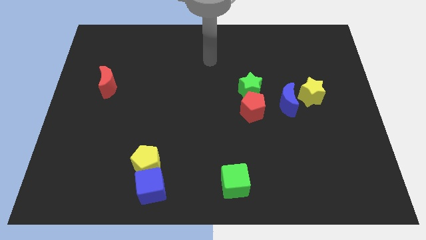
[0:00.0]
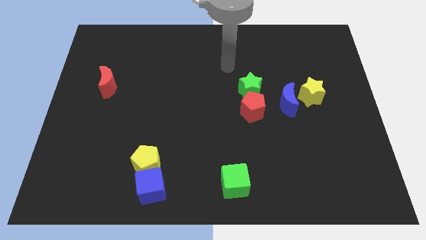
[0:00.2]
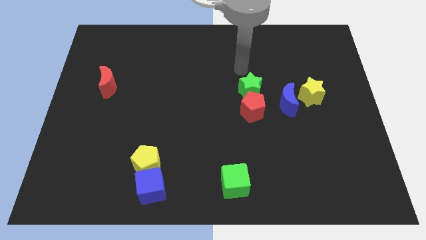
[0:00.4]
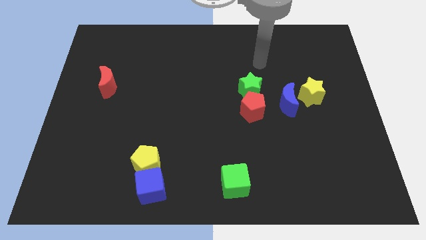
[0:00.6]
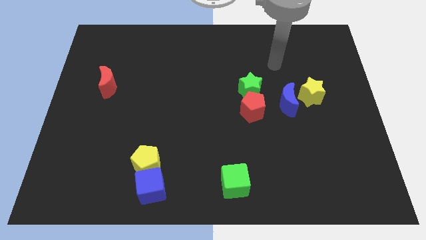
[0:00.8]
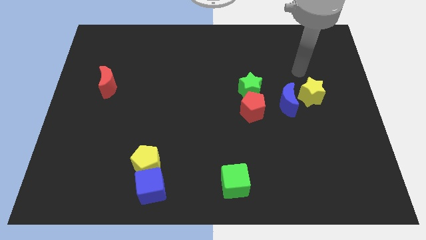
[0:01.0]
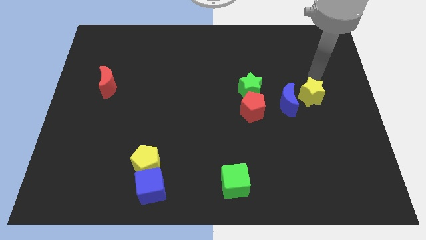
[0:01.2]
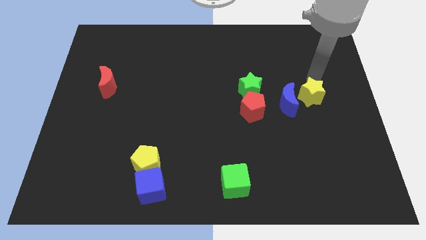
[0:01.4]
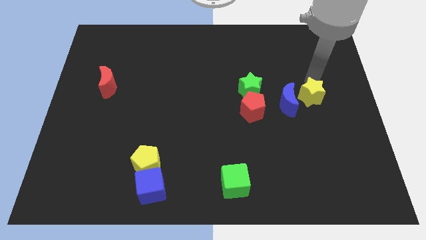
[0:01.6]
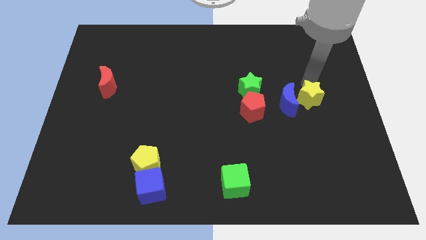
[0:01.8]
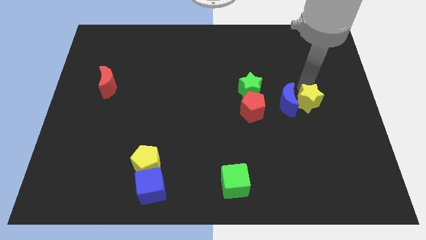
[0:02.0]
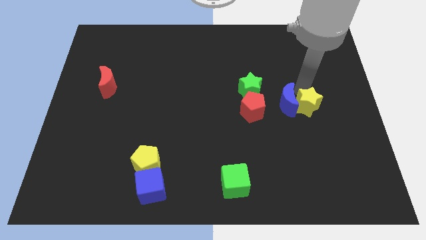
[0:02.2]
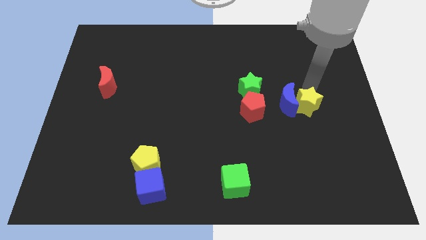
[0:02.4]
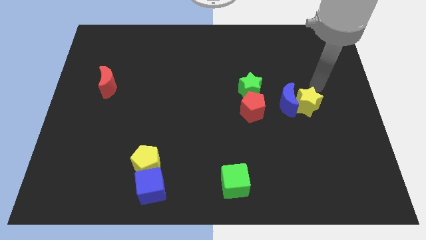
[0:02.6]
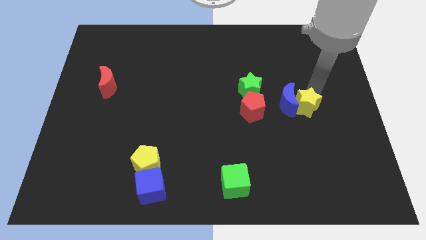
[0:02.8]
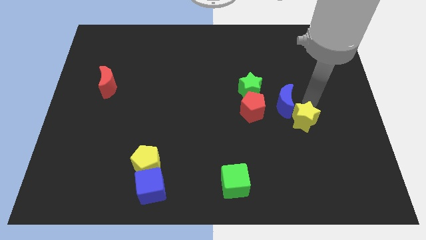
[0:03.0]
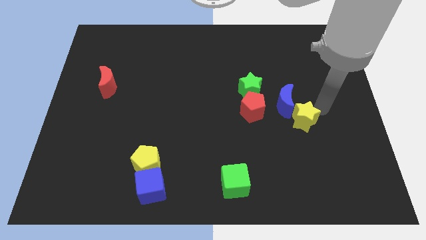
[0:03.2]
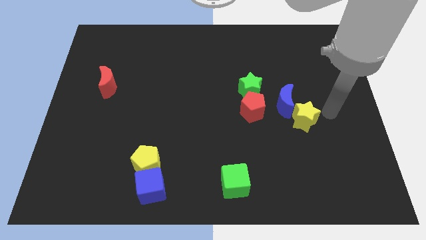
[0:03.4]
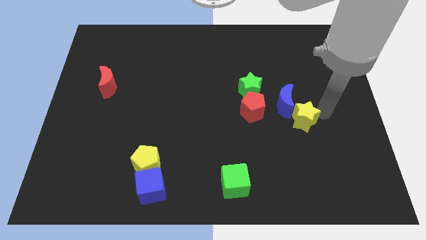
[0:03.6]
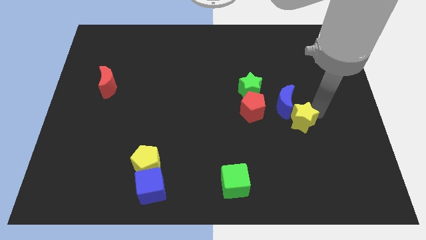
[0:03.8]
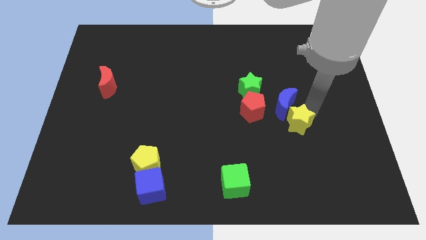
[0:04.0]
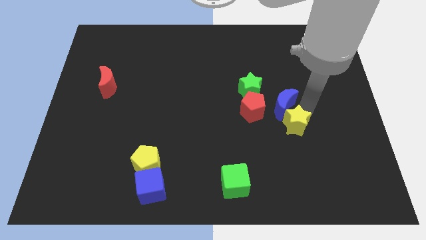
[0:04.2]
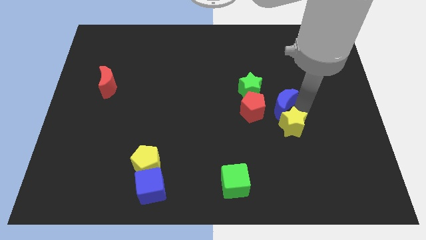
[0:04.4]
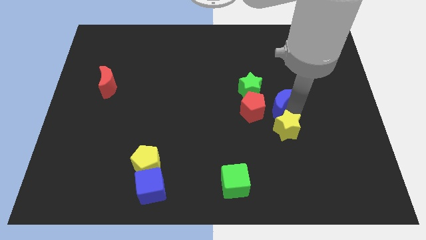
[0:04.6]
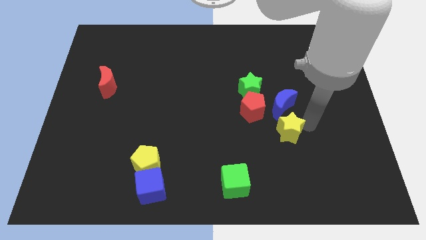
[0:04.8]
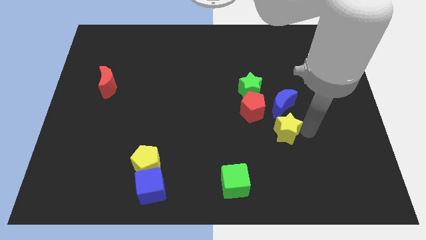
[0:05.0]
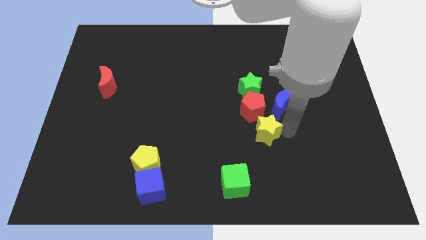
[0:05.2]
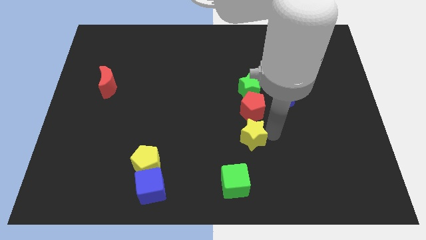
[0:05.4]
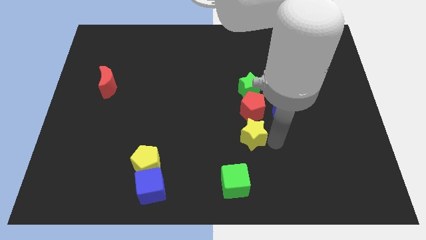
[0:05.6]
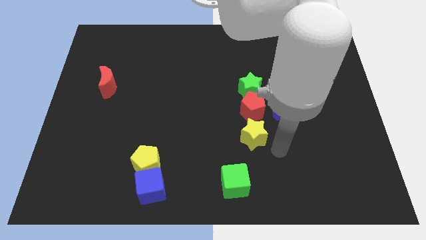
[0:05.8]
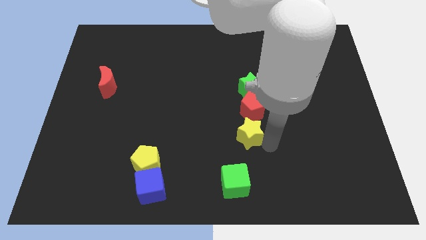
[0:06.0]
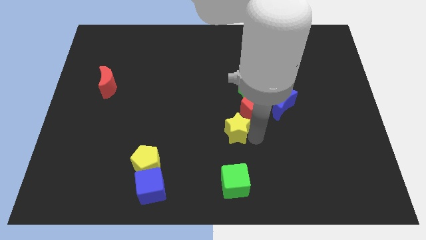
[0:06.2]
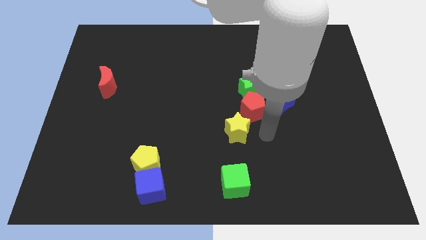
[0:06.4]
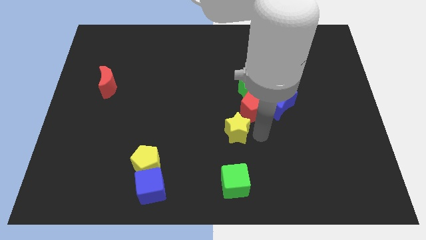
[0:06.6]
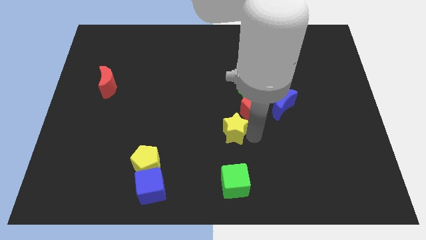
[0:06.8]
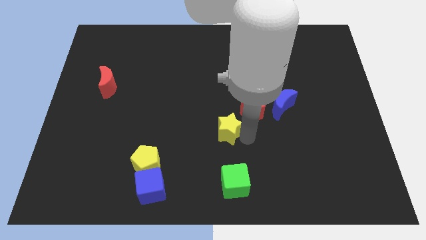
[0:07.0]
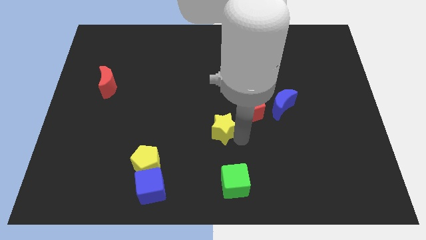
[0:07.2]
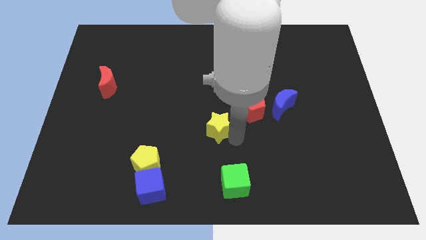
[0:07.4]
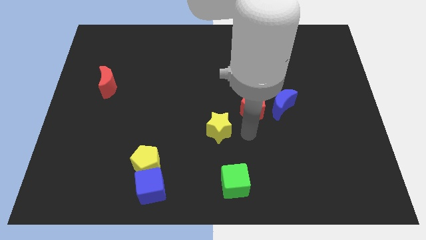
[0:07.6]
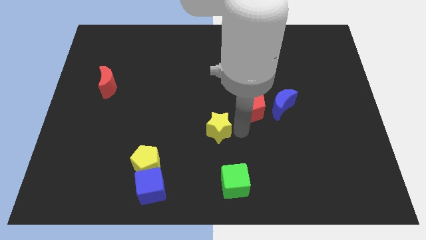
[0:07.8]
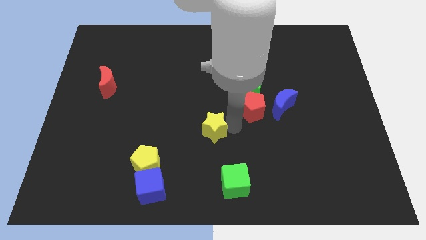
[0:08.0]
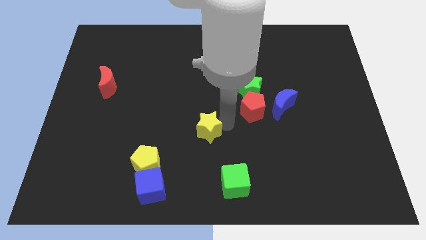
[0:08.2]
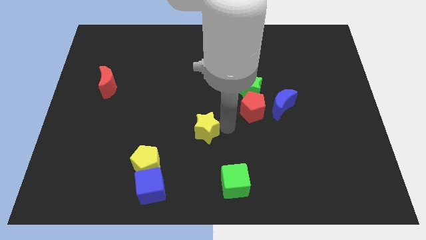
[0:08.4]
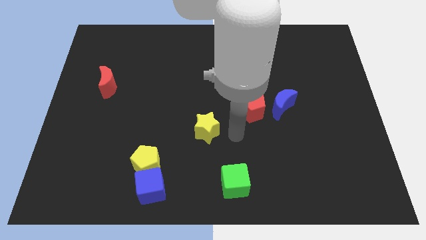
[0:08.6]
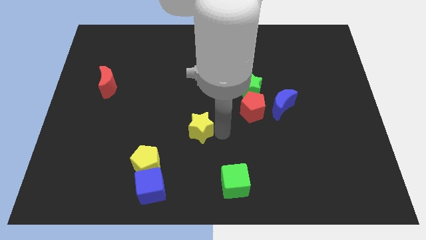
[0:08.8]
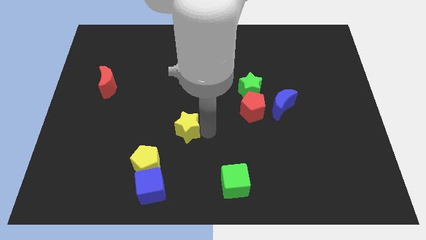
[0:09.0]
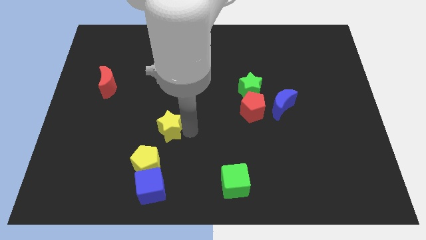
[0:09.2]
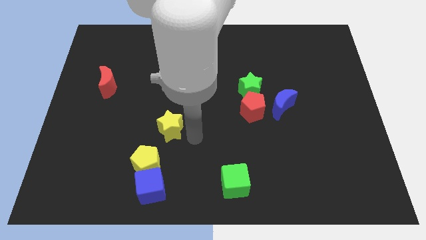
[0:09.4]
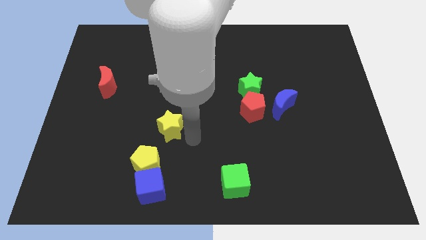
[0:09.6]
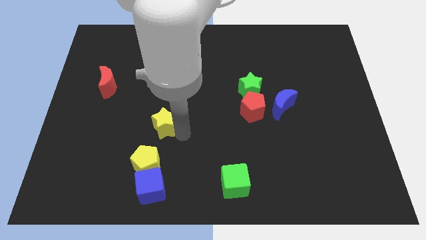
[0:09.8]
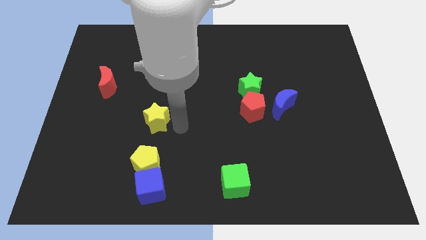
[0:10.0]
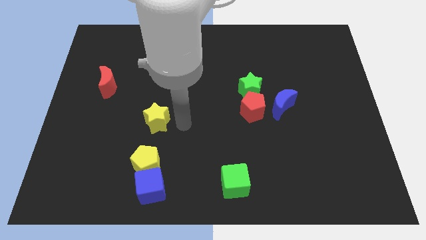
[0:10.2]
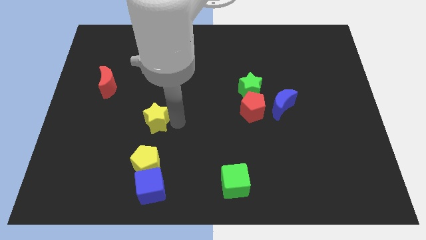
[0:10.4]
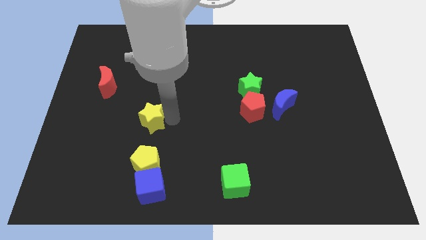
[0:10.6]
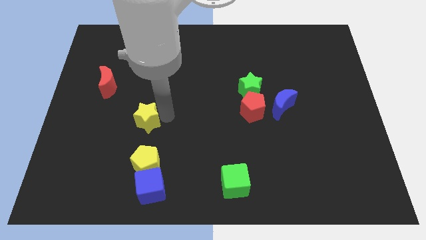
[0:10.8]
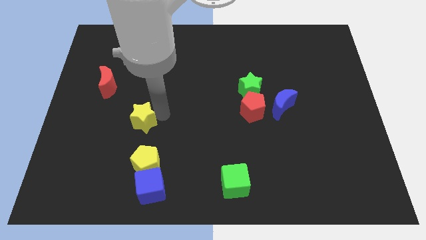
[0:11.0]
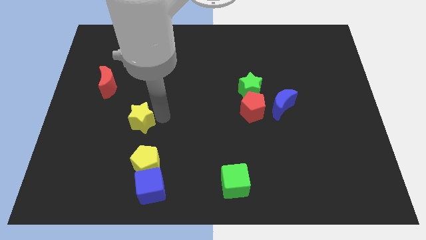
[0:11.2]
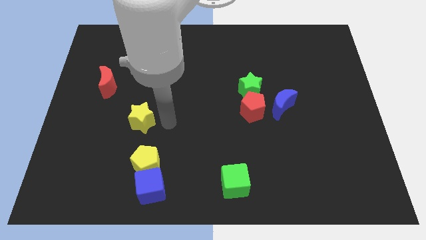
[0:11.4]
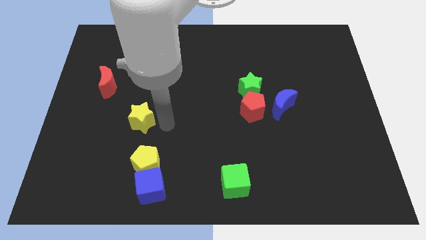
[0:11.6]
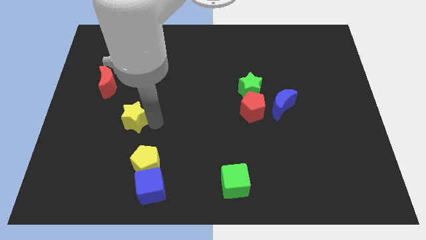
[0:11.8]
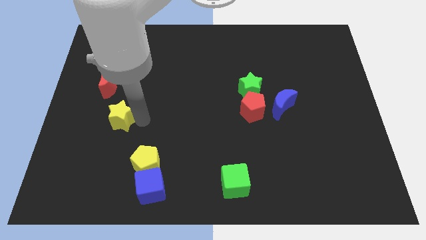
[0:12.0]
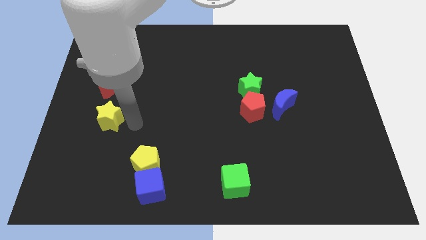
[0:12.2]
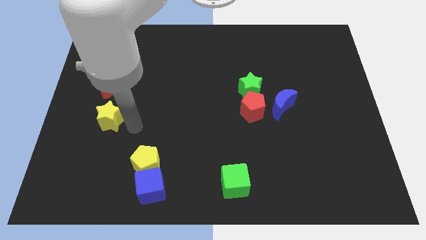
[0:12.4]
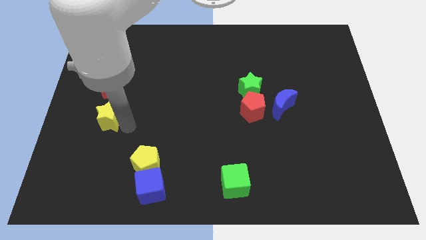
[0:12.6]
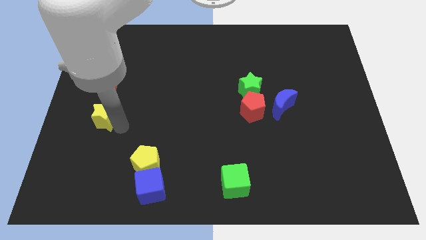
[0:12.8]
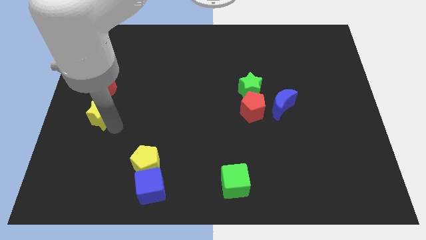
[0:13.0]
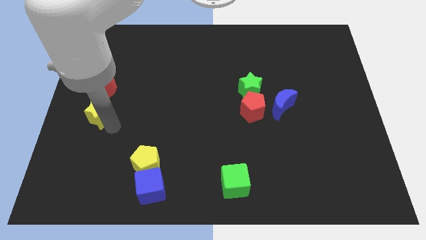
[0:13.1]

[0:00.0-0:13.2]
slide the yellow star to the left side

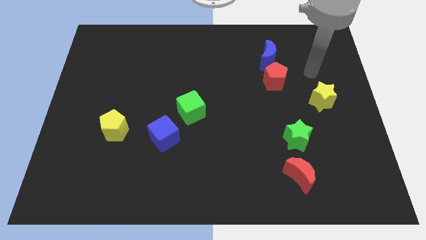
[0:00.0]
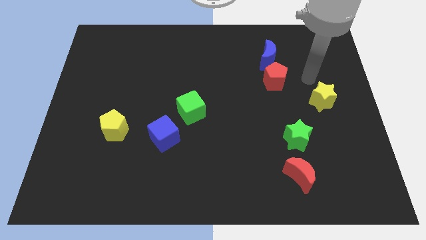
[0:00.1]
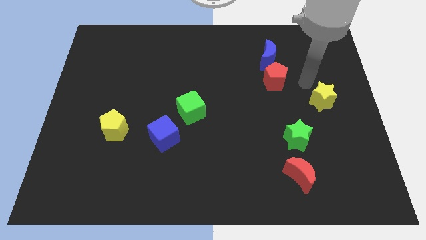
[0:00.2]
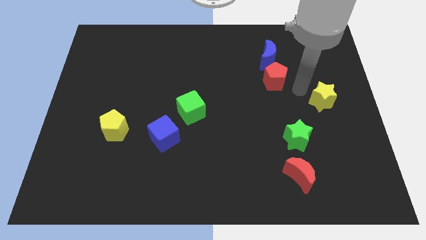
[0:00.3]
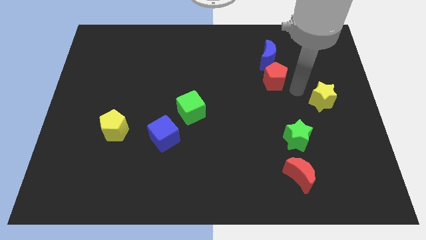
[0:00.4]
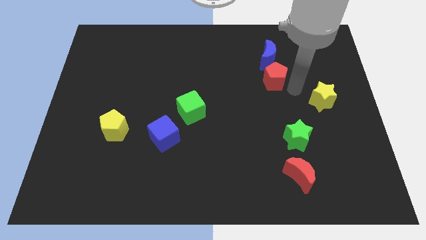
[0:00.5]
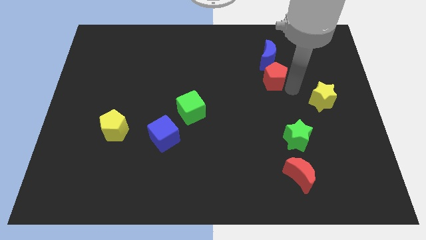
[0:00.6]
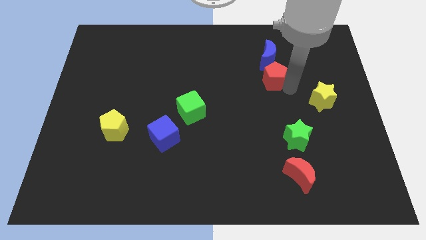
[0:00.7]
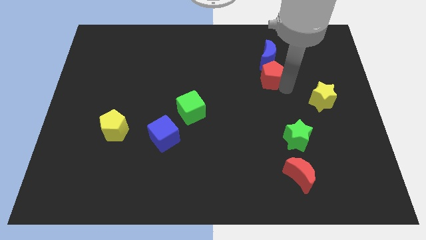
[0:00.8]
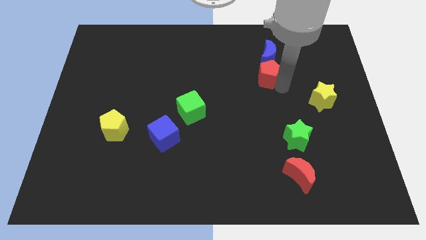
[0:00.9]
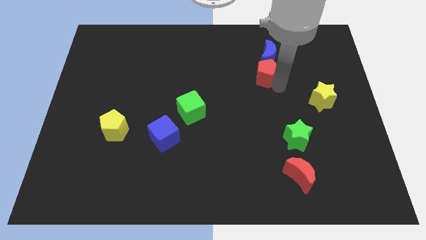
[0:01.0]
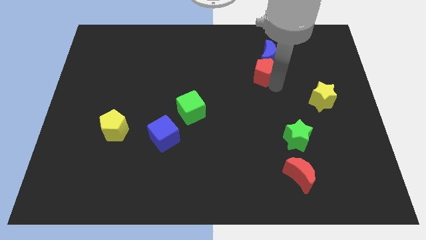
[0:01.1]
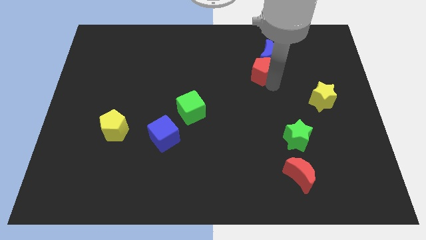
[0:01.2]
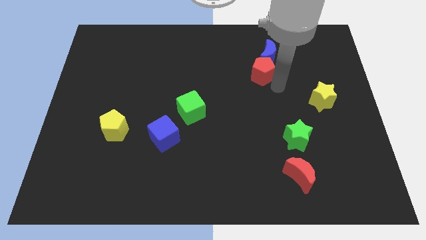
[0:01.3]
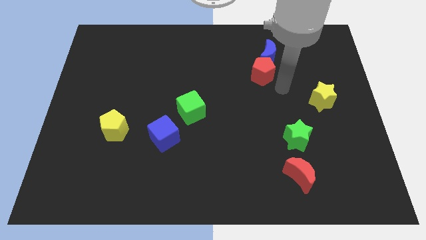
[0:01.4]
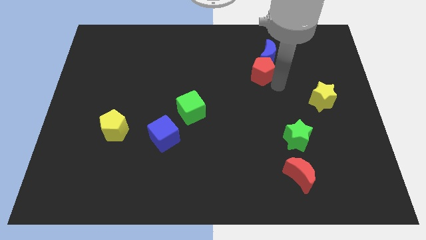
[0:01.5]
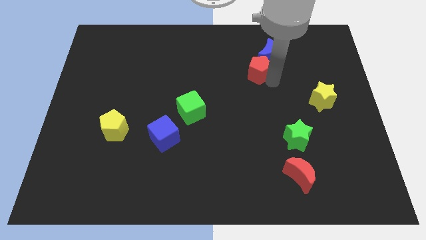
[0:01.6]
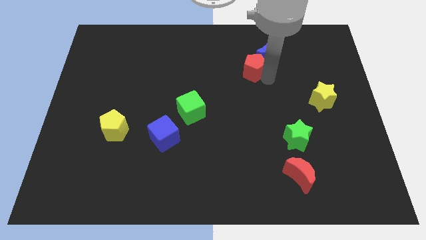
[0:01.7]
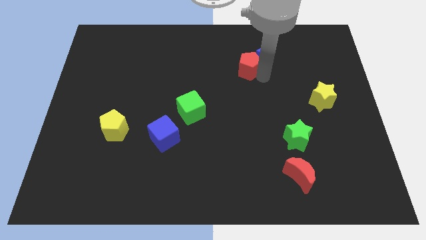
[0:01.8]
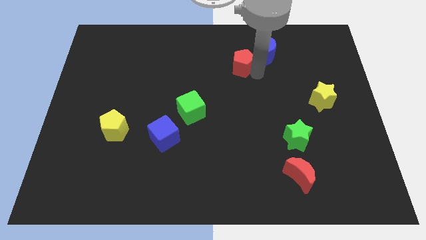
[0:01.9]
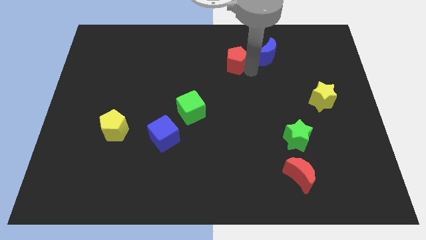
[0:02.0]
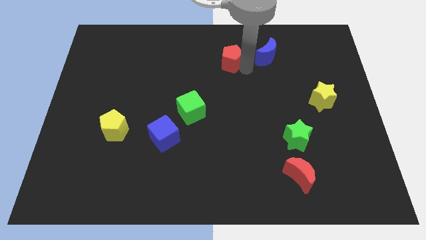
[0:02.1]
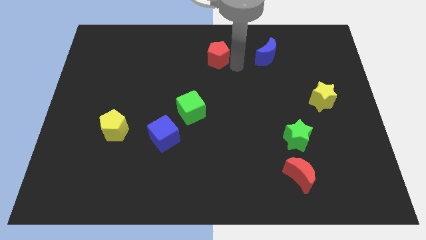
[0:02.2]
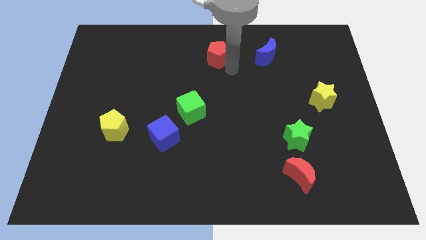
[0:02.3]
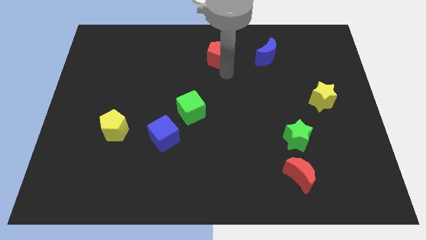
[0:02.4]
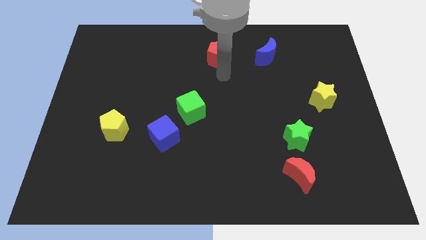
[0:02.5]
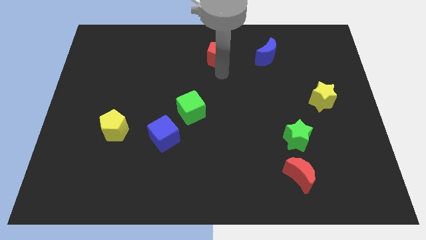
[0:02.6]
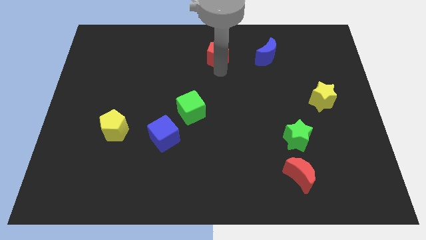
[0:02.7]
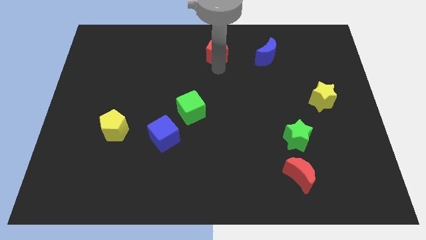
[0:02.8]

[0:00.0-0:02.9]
move the red pentagon to the top side
